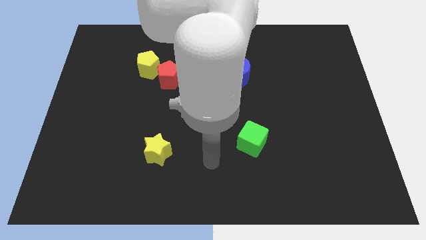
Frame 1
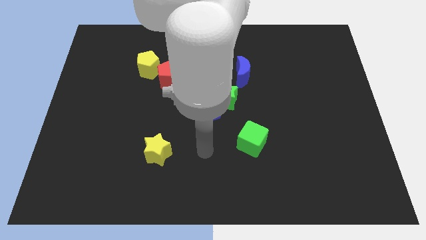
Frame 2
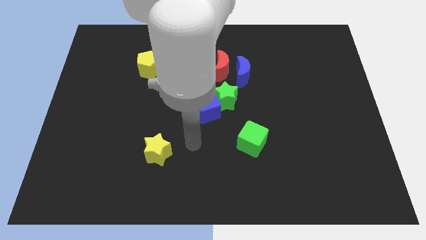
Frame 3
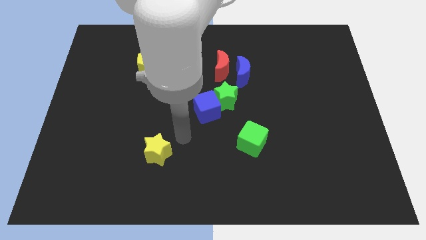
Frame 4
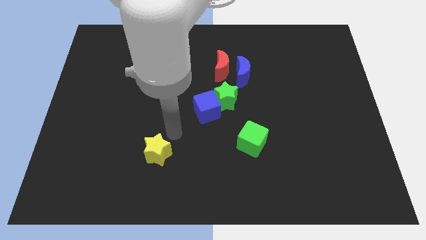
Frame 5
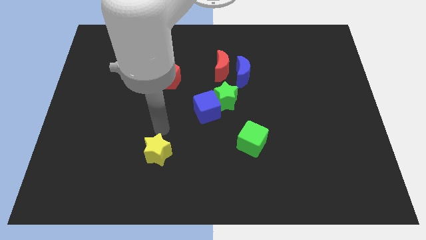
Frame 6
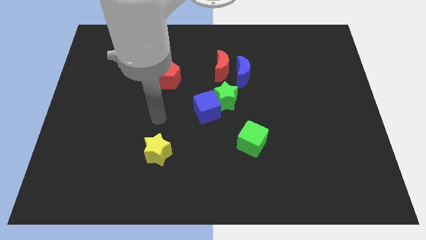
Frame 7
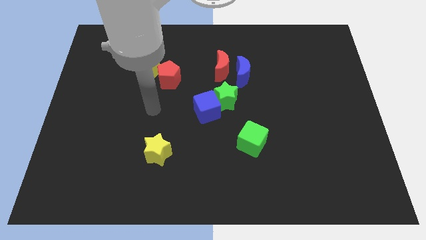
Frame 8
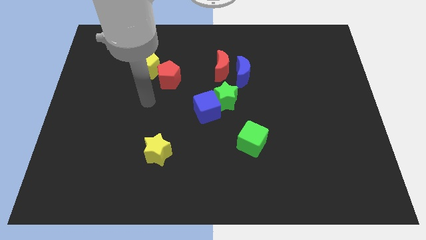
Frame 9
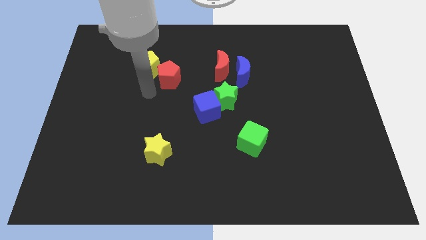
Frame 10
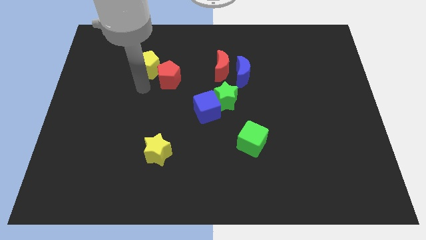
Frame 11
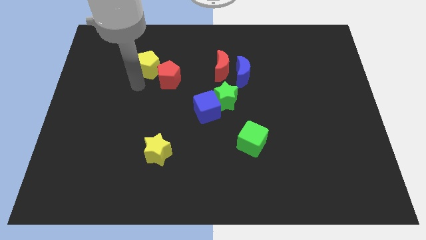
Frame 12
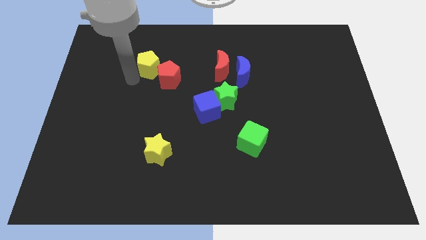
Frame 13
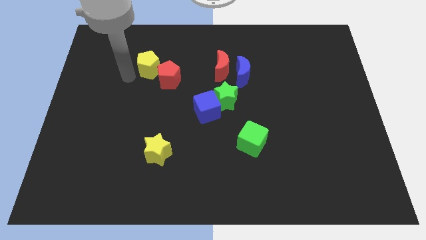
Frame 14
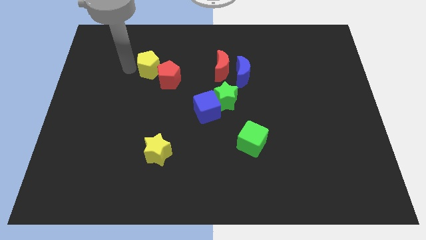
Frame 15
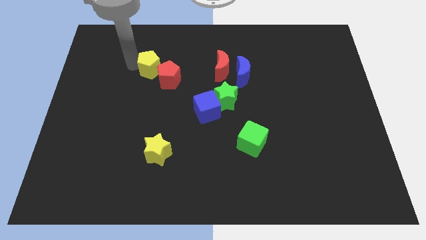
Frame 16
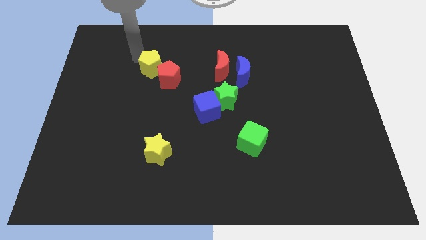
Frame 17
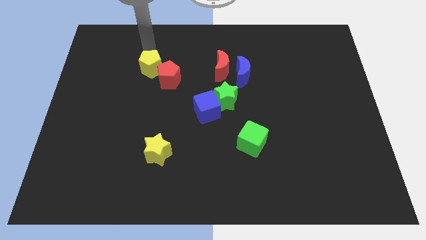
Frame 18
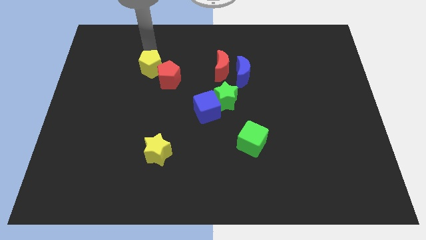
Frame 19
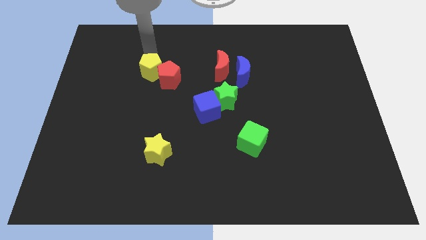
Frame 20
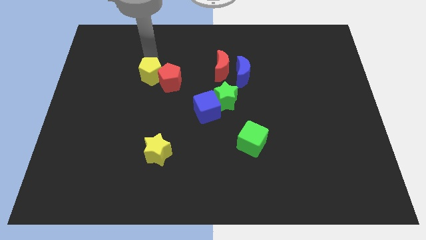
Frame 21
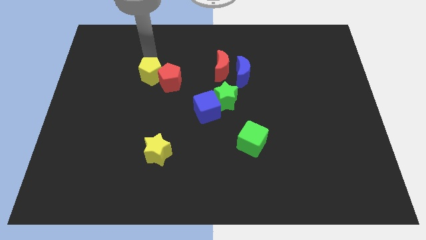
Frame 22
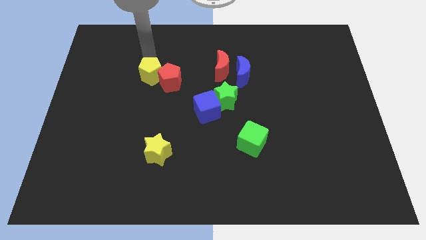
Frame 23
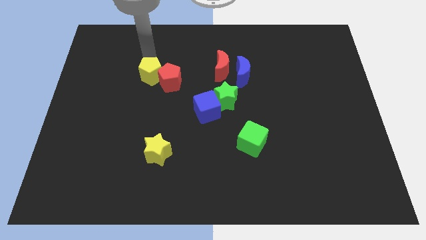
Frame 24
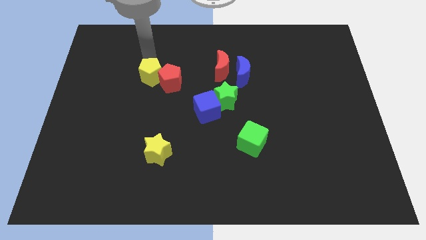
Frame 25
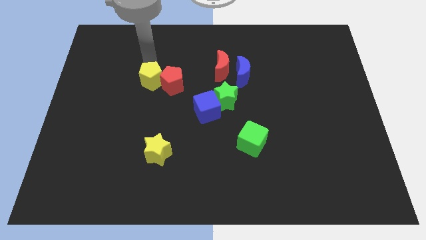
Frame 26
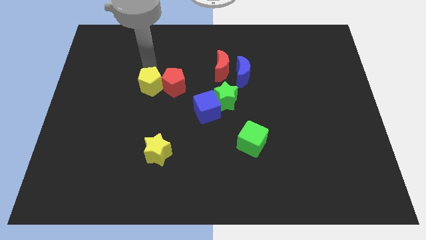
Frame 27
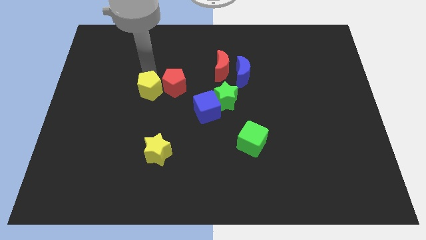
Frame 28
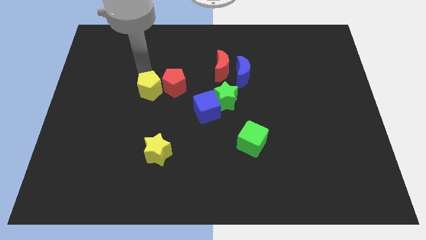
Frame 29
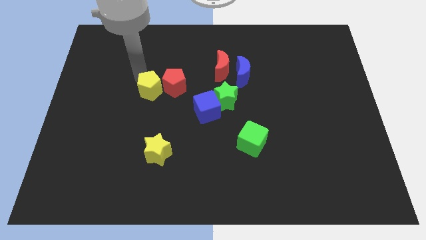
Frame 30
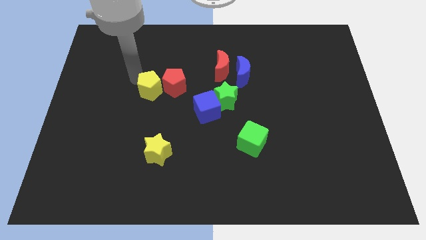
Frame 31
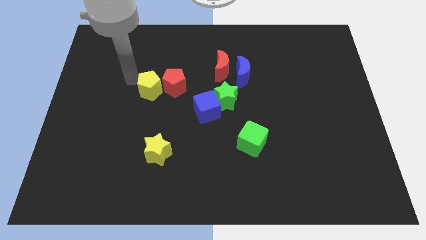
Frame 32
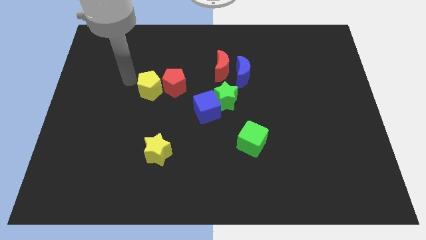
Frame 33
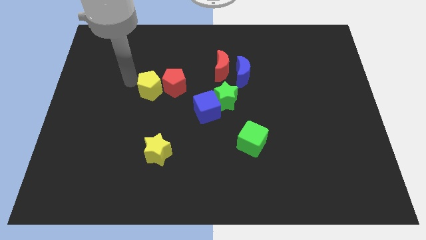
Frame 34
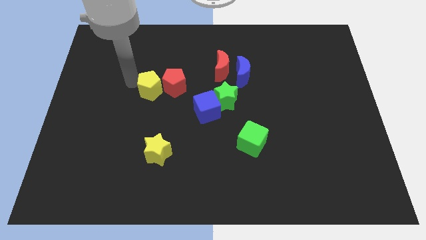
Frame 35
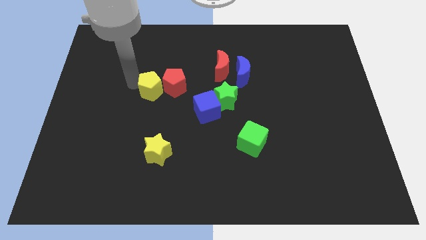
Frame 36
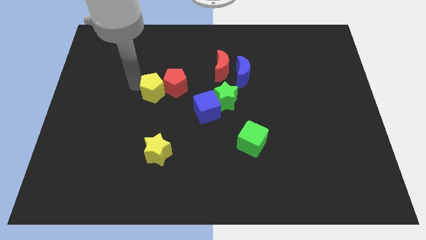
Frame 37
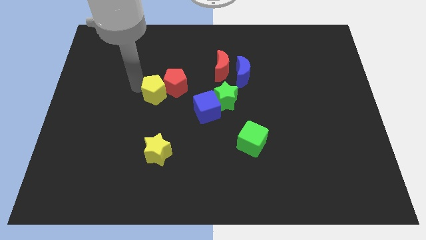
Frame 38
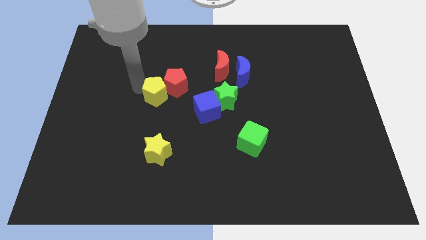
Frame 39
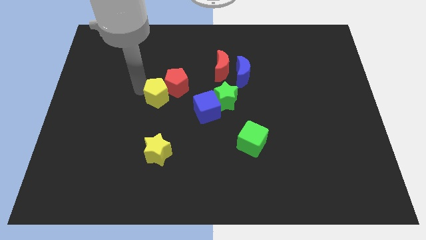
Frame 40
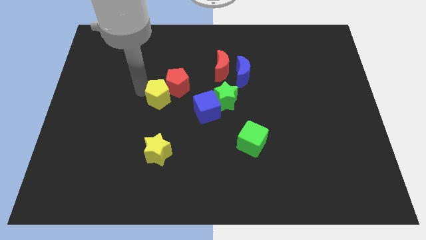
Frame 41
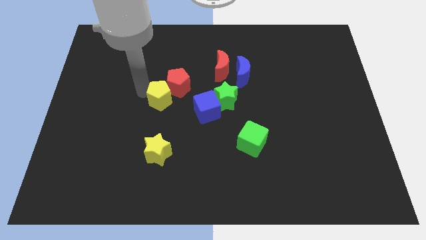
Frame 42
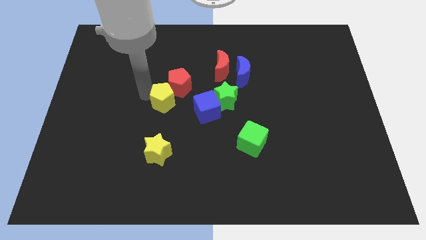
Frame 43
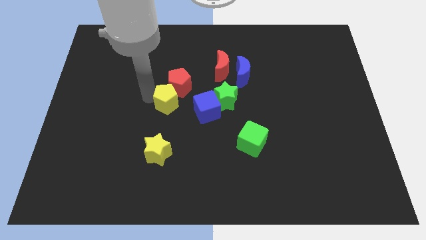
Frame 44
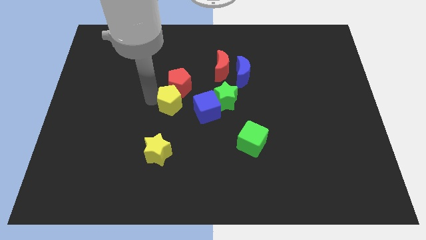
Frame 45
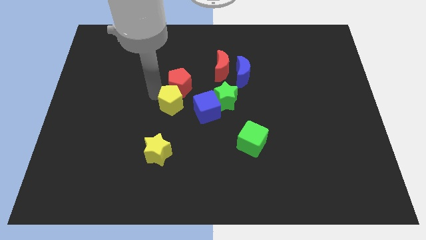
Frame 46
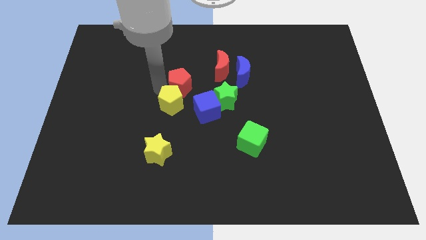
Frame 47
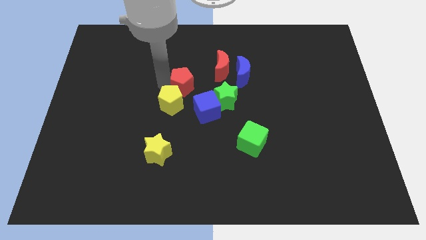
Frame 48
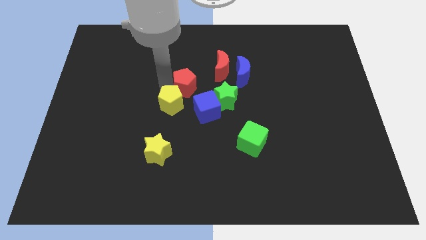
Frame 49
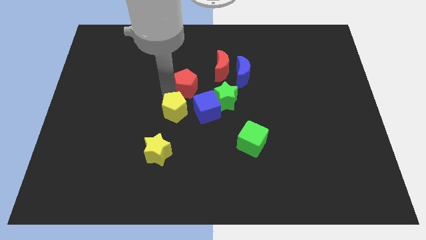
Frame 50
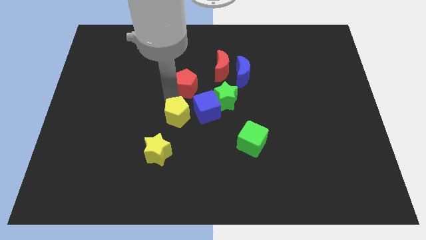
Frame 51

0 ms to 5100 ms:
put the yellow pentagon to the top right side of the yellow star

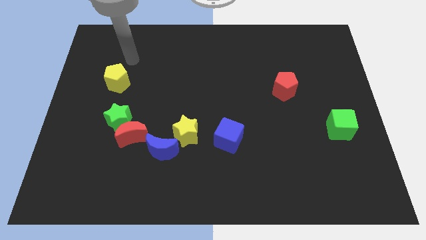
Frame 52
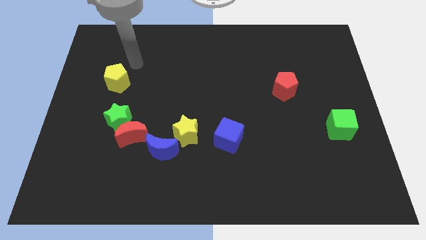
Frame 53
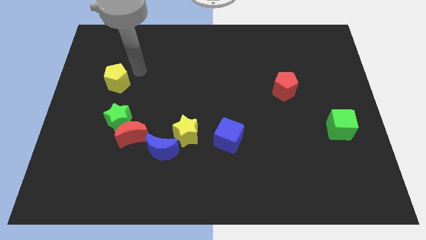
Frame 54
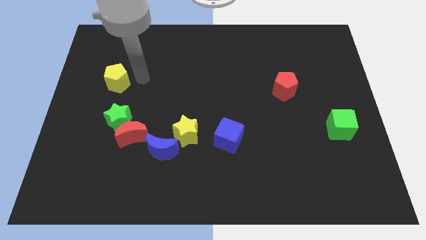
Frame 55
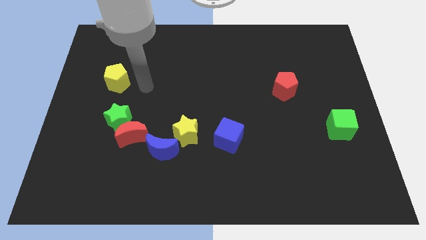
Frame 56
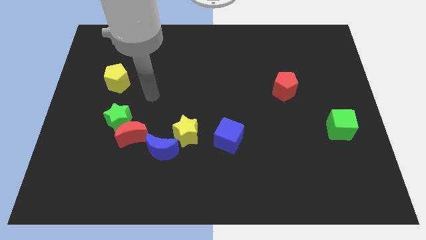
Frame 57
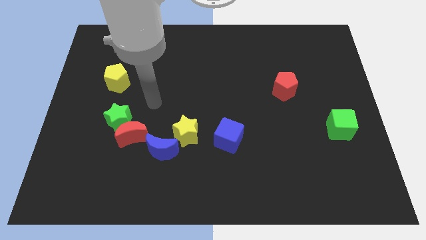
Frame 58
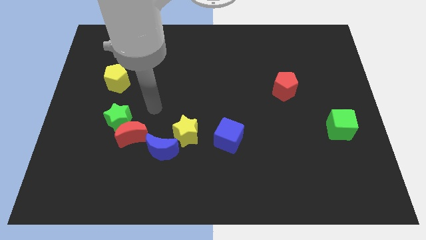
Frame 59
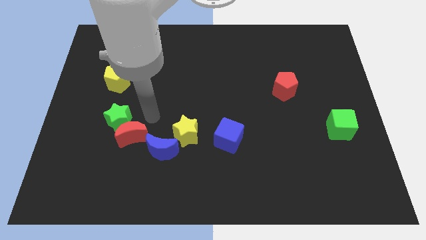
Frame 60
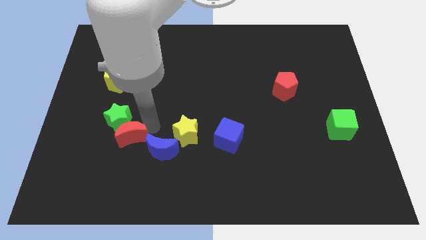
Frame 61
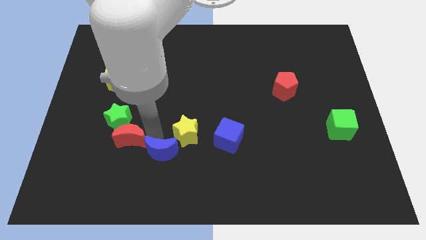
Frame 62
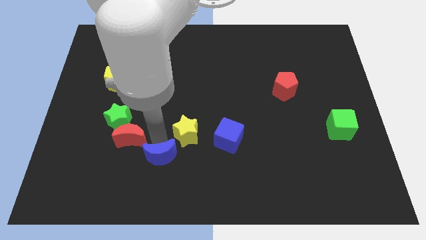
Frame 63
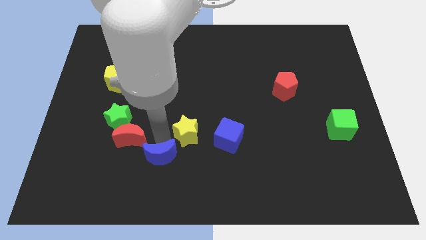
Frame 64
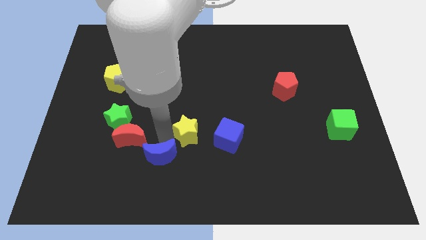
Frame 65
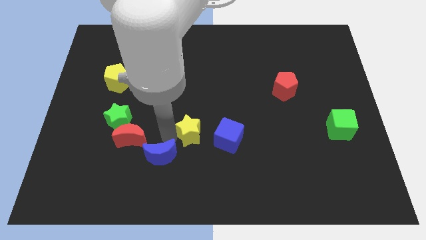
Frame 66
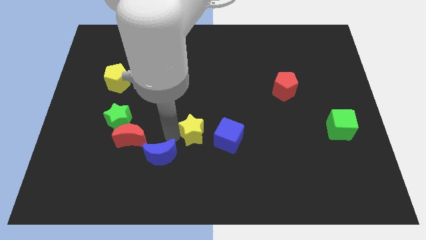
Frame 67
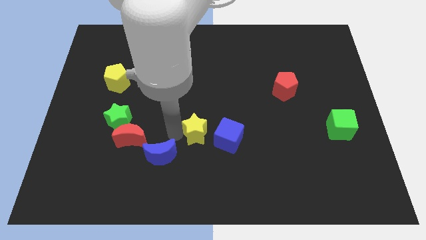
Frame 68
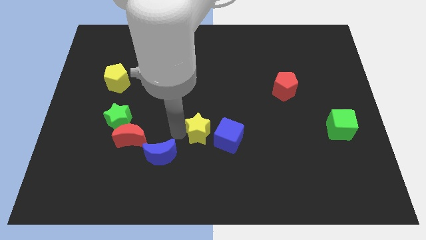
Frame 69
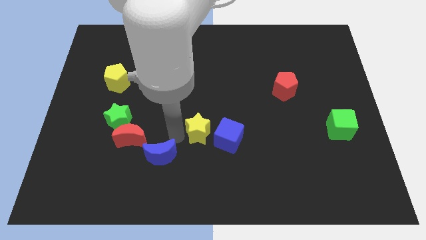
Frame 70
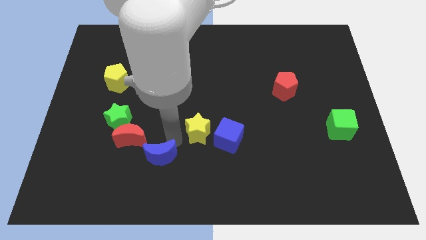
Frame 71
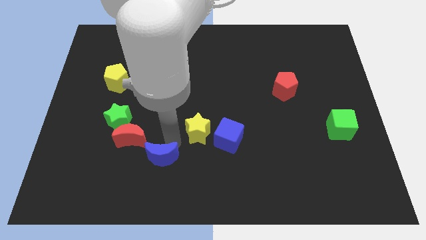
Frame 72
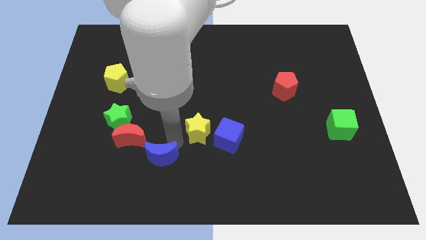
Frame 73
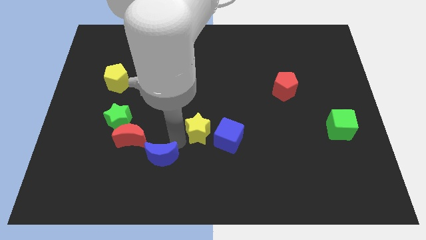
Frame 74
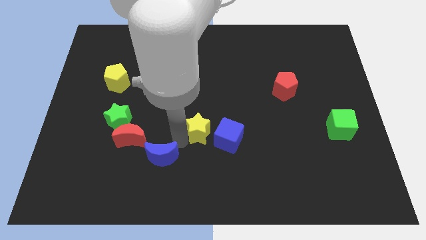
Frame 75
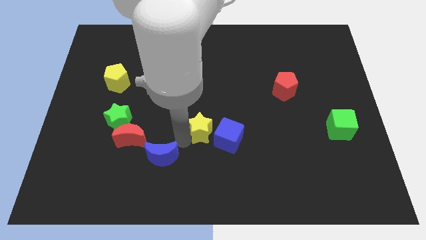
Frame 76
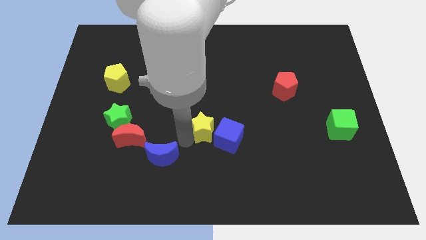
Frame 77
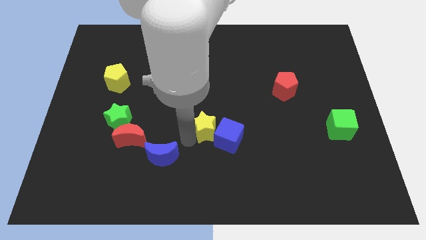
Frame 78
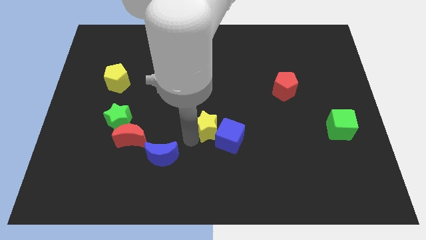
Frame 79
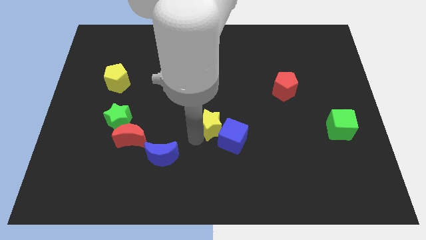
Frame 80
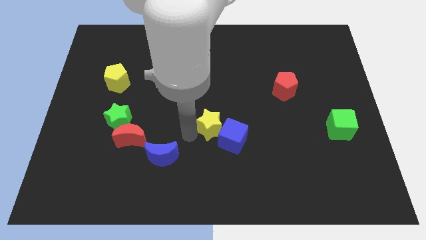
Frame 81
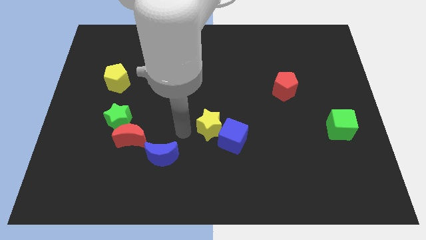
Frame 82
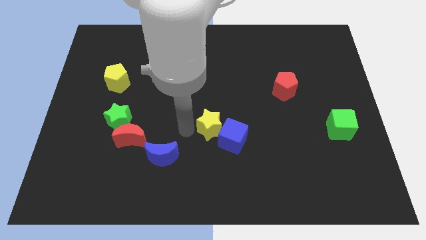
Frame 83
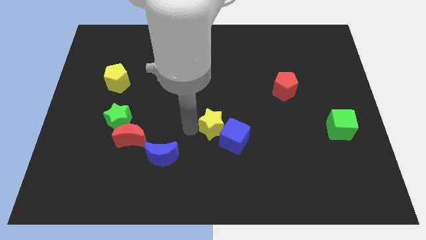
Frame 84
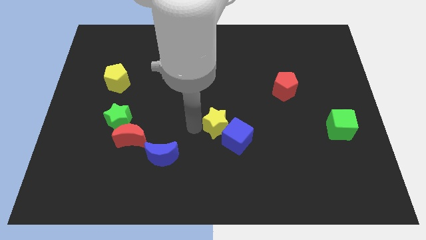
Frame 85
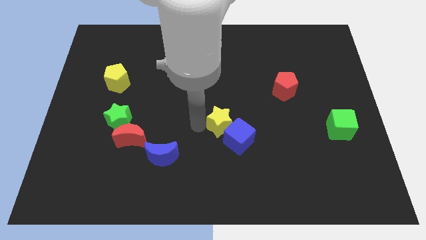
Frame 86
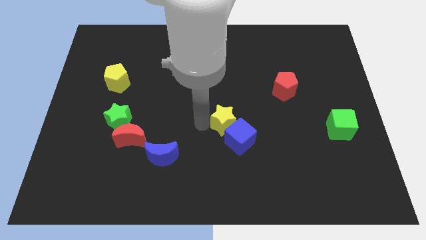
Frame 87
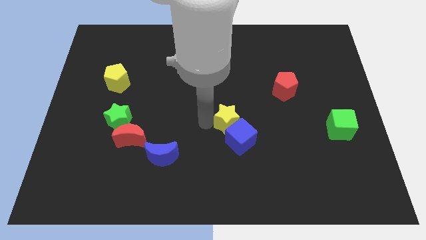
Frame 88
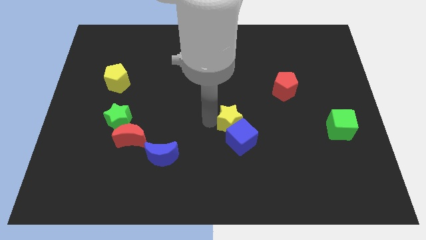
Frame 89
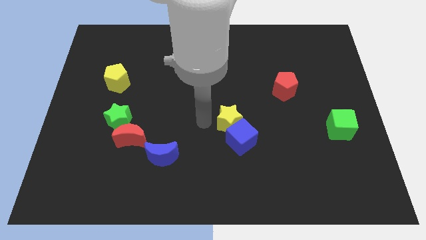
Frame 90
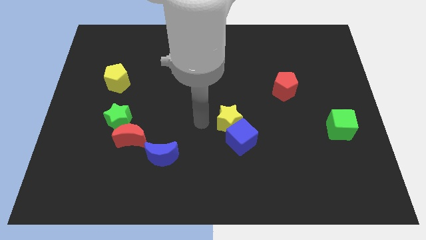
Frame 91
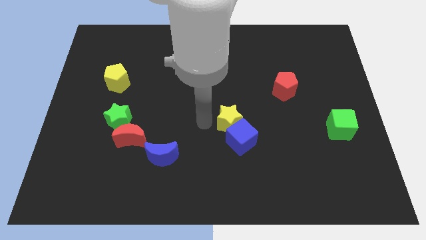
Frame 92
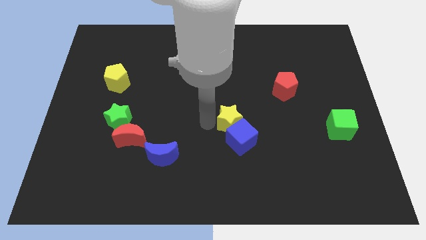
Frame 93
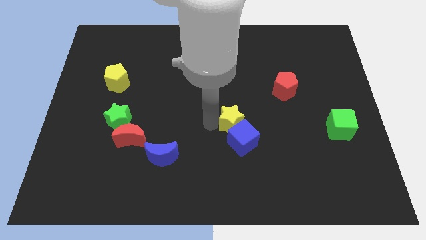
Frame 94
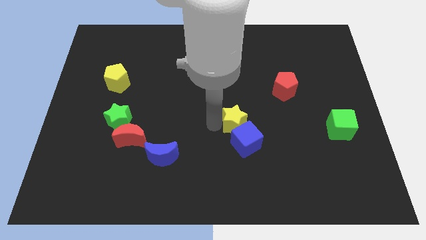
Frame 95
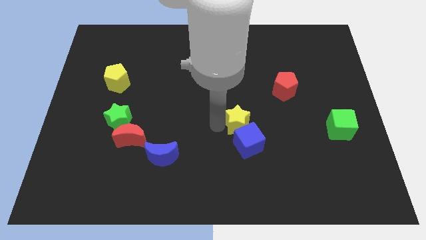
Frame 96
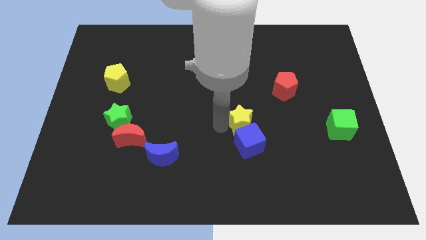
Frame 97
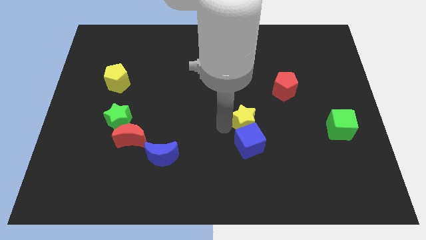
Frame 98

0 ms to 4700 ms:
move the yellow star diagonally up and to the right of the blue cube
